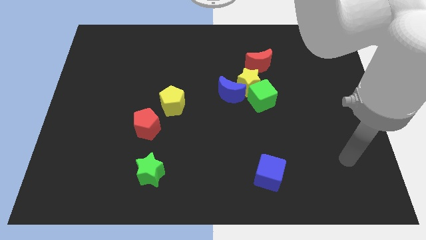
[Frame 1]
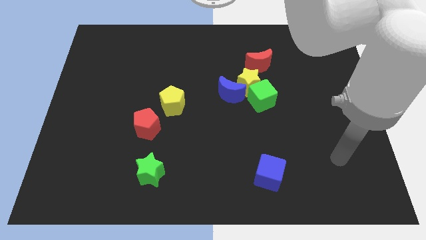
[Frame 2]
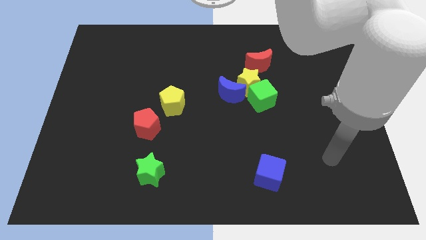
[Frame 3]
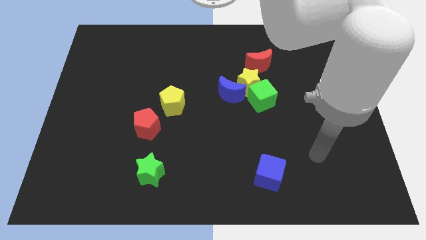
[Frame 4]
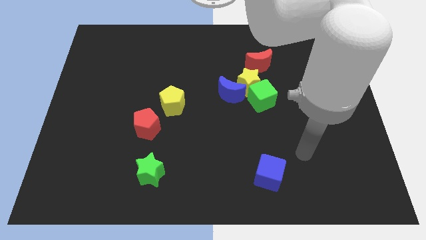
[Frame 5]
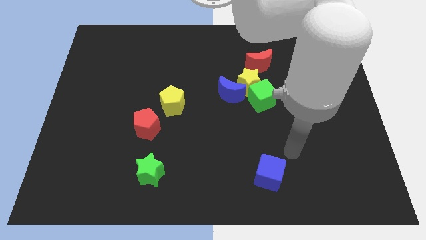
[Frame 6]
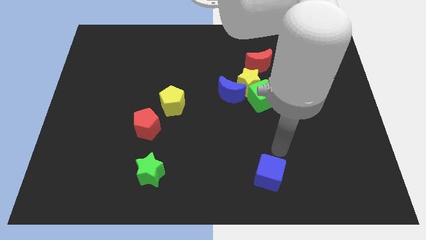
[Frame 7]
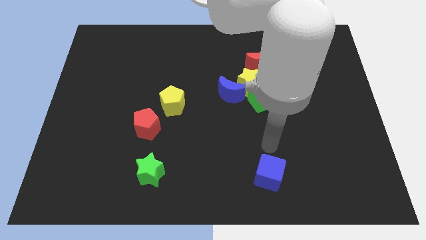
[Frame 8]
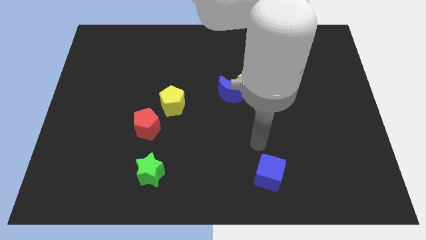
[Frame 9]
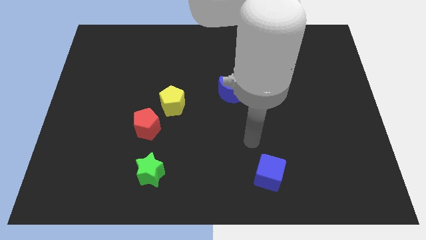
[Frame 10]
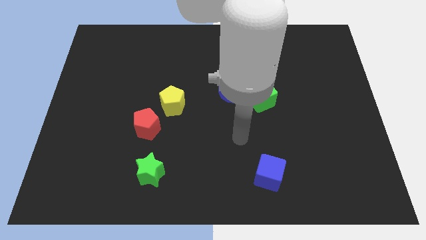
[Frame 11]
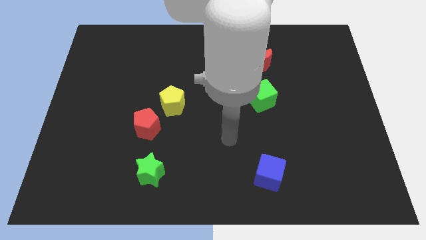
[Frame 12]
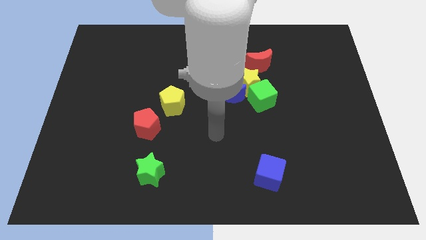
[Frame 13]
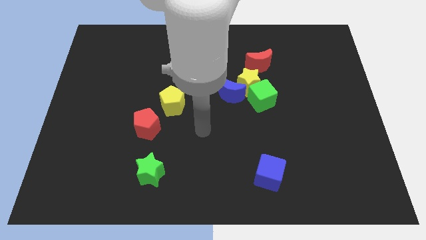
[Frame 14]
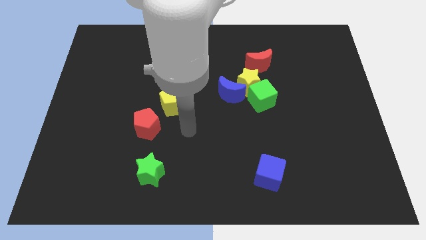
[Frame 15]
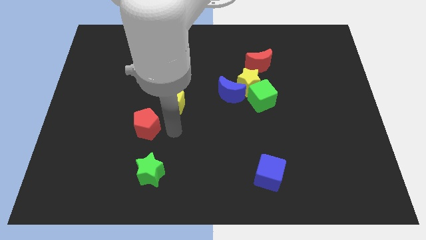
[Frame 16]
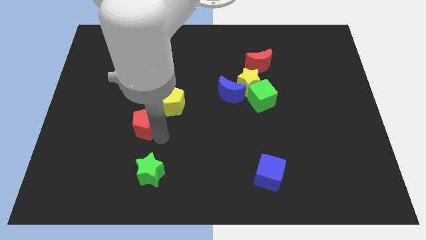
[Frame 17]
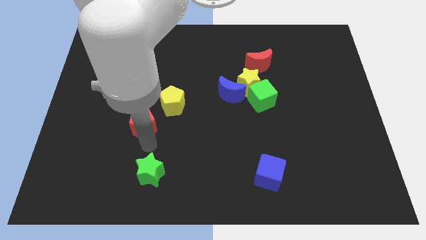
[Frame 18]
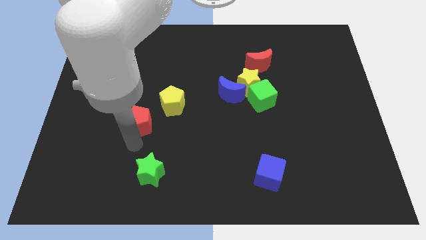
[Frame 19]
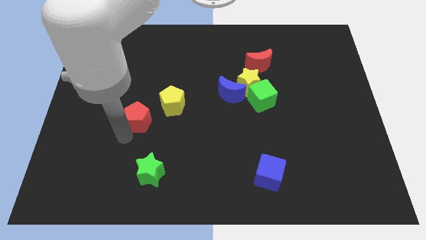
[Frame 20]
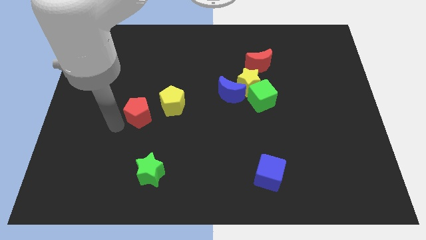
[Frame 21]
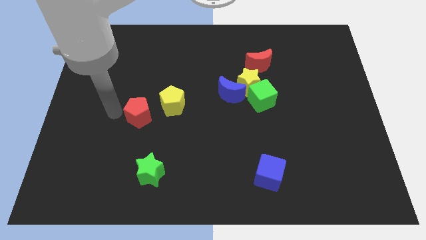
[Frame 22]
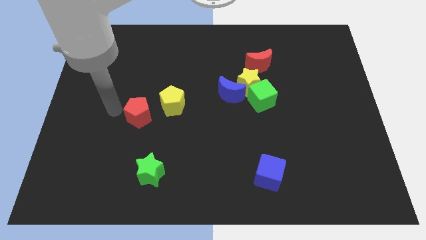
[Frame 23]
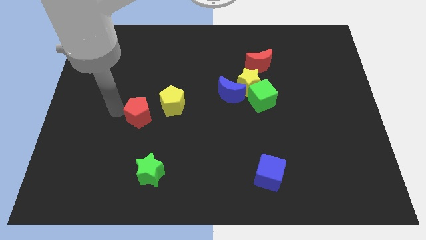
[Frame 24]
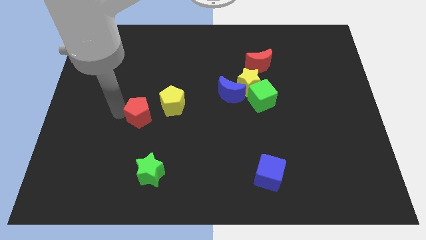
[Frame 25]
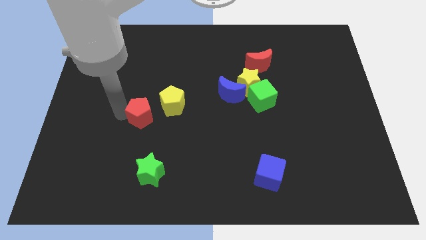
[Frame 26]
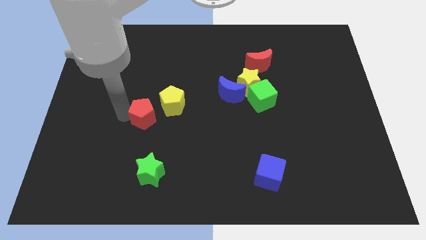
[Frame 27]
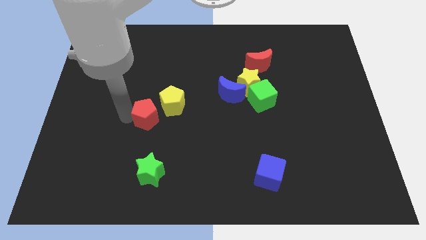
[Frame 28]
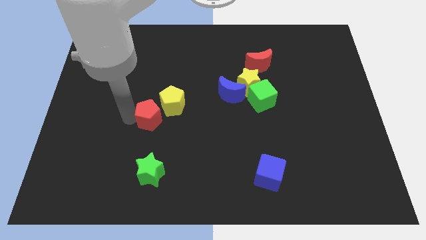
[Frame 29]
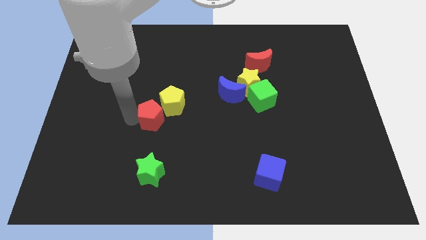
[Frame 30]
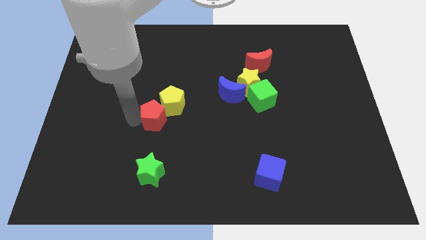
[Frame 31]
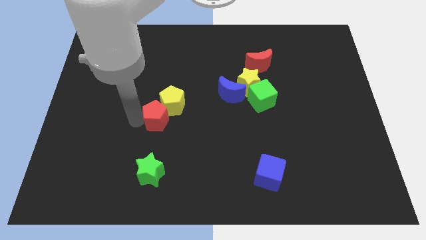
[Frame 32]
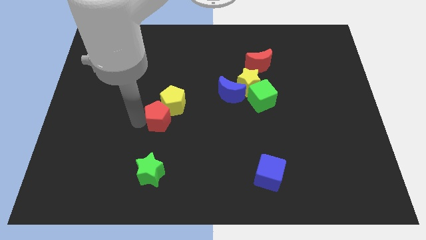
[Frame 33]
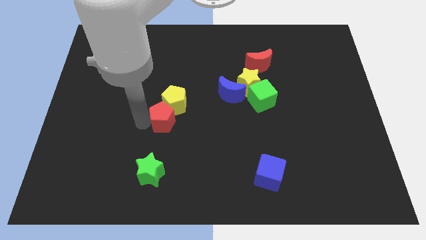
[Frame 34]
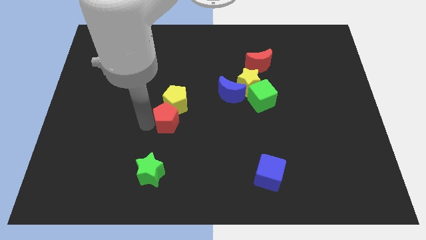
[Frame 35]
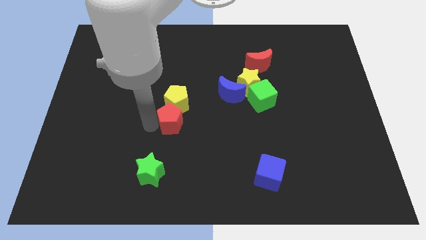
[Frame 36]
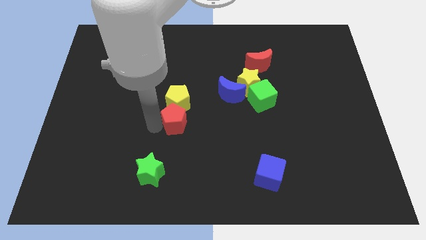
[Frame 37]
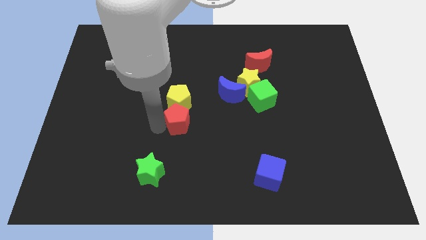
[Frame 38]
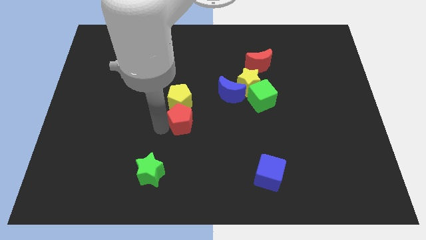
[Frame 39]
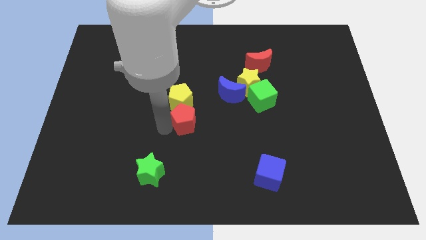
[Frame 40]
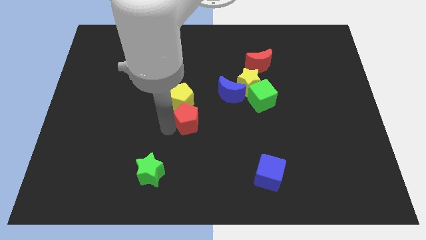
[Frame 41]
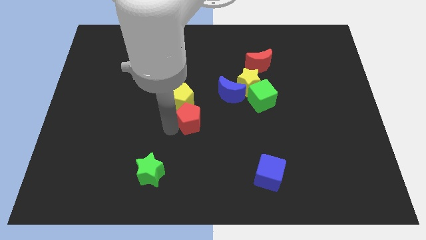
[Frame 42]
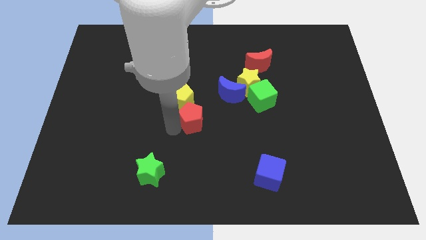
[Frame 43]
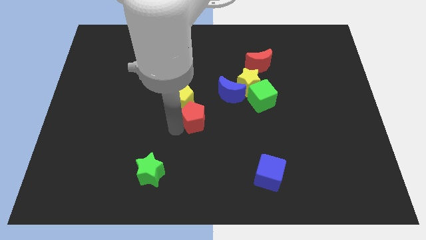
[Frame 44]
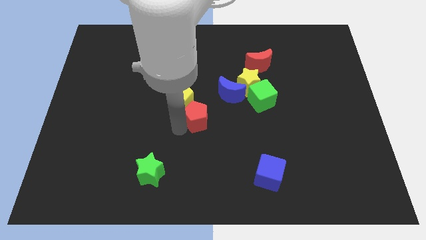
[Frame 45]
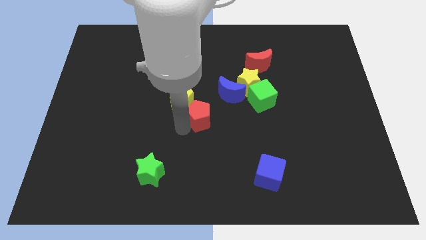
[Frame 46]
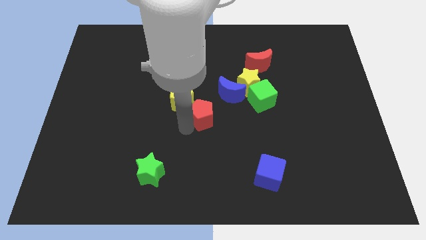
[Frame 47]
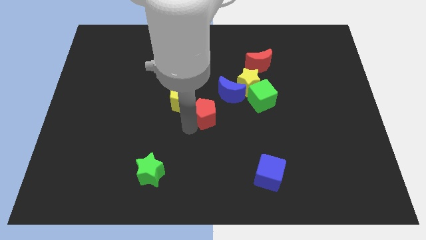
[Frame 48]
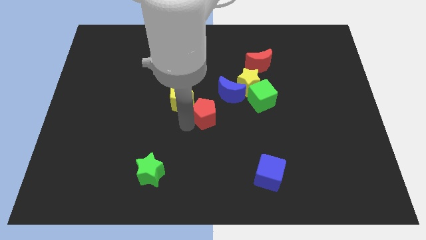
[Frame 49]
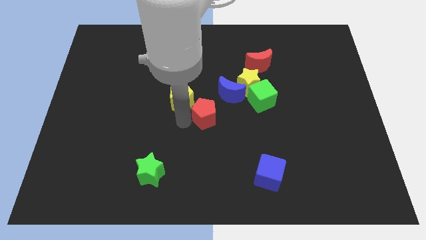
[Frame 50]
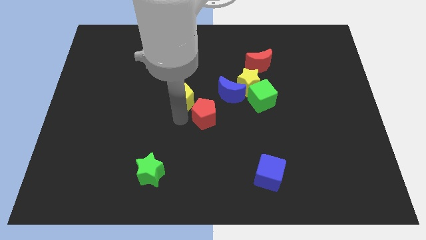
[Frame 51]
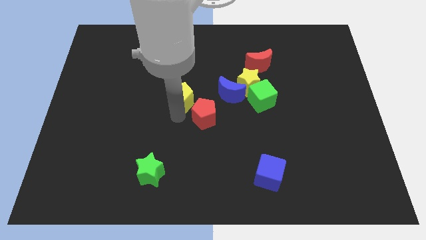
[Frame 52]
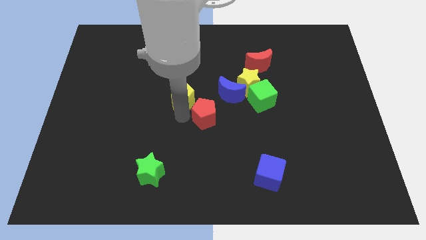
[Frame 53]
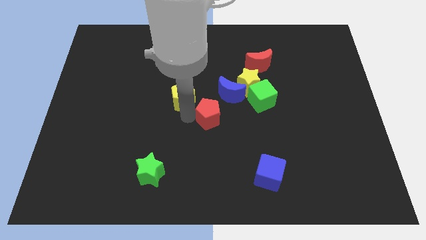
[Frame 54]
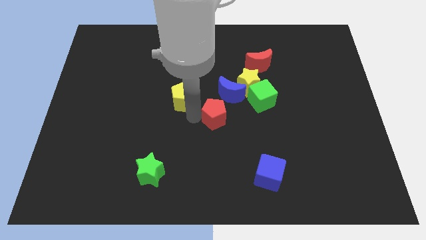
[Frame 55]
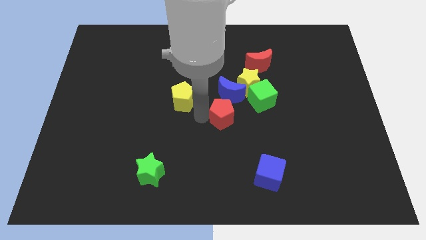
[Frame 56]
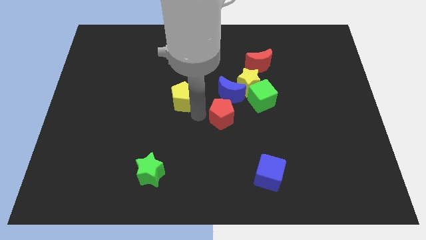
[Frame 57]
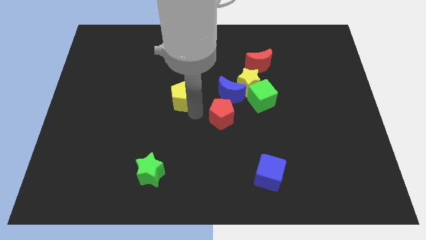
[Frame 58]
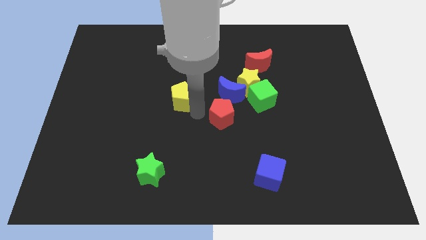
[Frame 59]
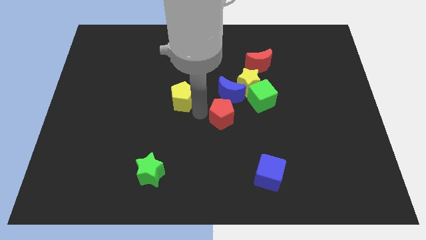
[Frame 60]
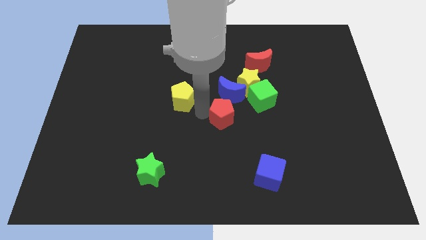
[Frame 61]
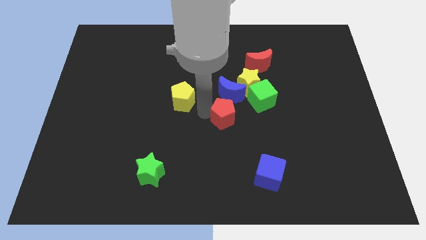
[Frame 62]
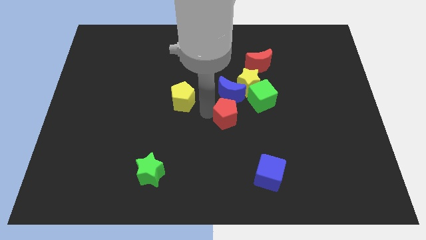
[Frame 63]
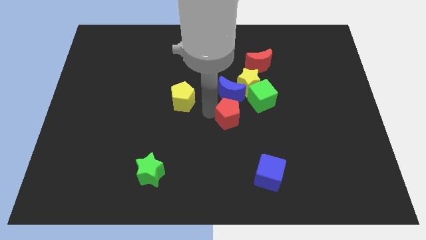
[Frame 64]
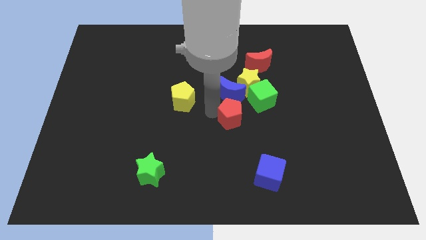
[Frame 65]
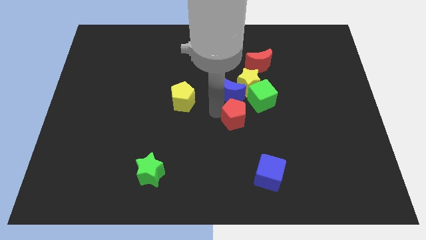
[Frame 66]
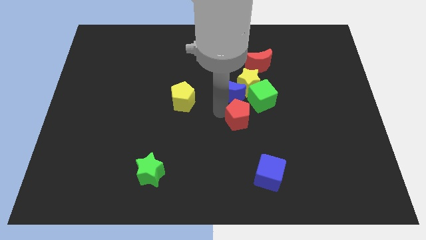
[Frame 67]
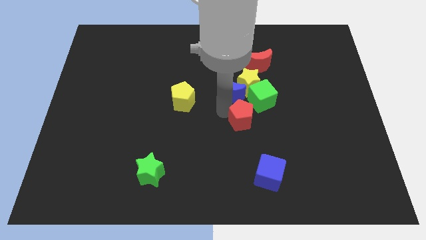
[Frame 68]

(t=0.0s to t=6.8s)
put the red pentagon to the bottom side of the green cube

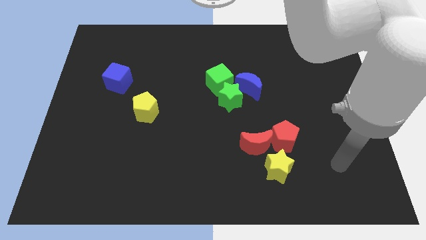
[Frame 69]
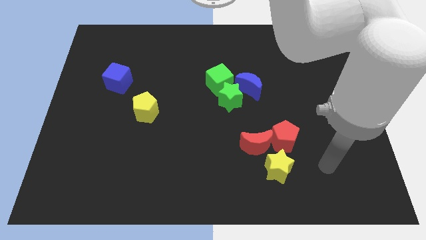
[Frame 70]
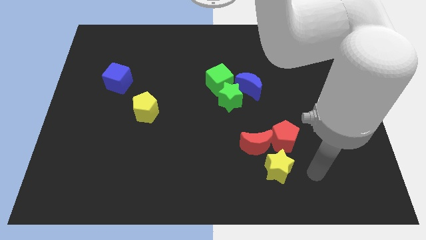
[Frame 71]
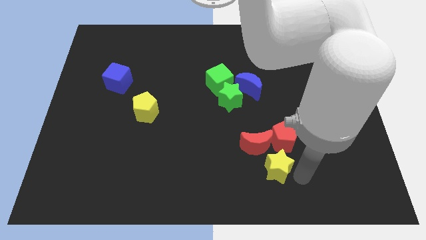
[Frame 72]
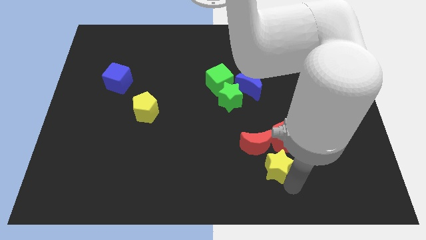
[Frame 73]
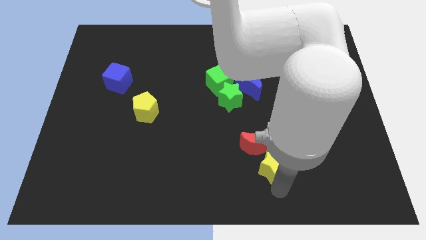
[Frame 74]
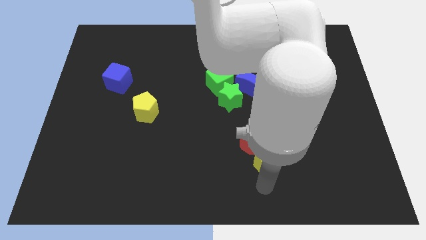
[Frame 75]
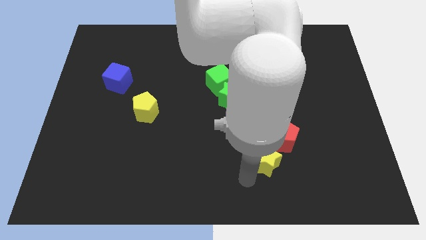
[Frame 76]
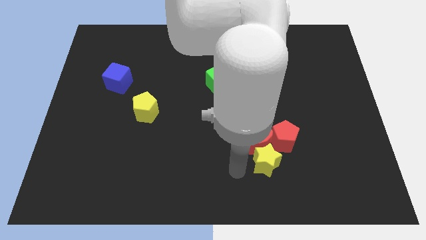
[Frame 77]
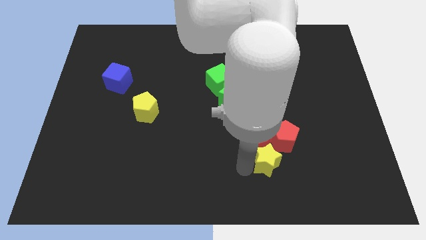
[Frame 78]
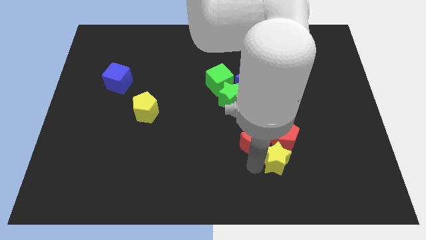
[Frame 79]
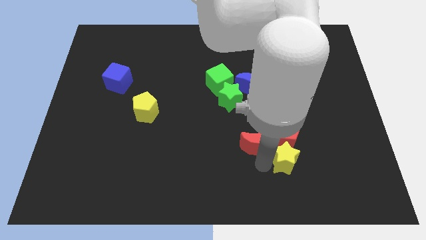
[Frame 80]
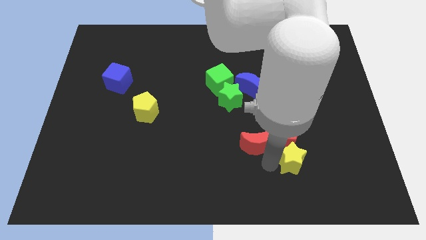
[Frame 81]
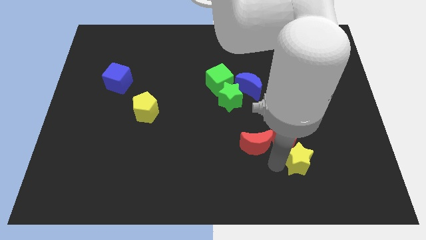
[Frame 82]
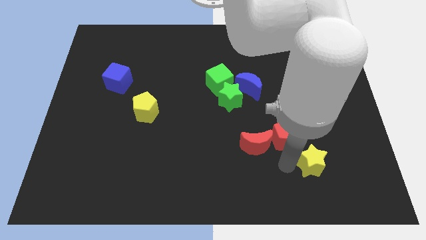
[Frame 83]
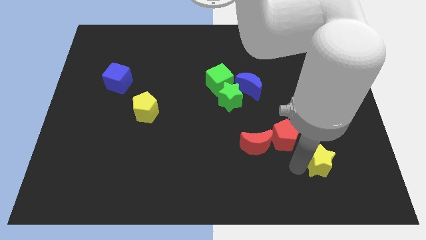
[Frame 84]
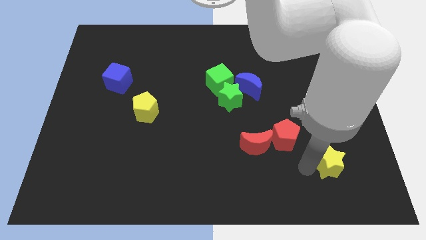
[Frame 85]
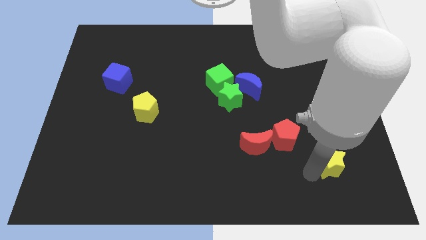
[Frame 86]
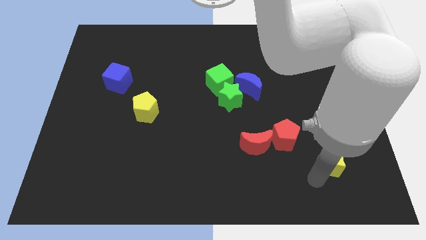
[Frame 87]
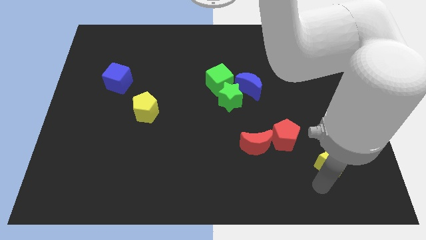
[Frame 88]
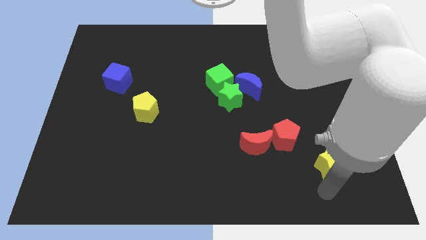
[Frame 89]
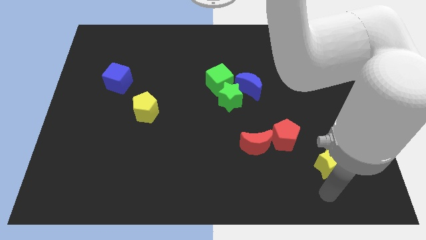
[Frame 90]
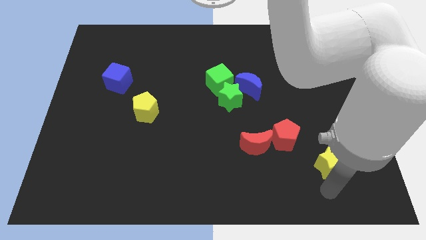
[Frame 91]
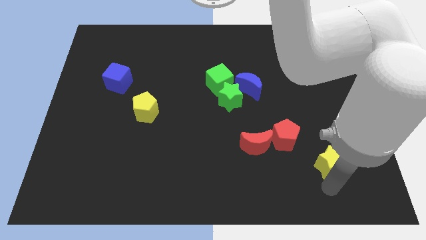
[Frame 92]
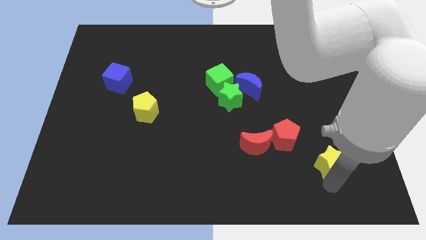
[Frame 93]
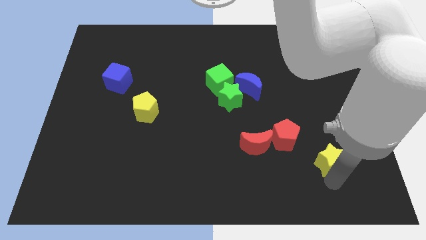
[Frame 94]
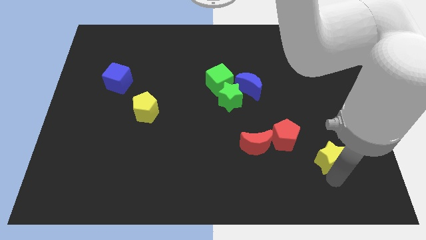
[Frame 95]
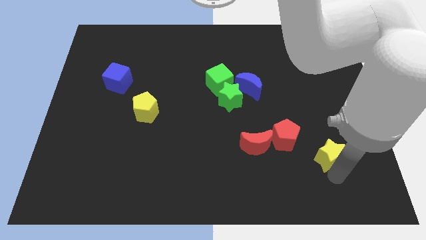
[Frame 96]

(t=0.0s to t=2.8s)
slide the yellow star just right of the red pentagon
